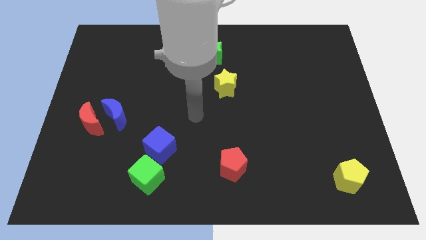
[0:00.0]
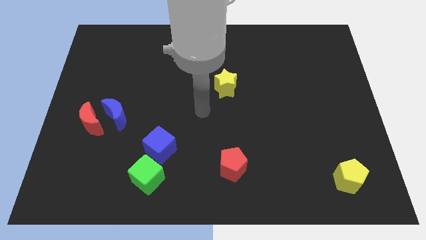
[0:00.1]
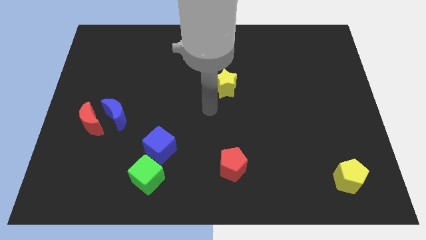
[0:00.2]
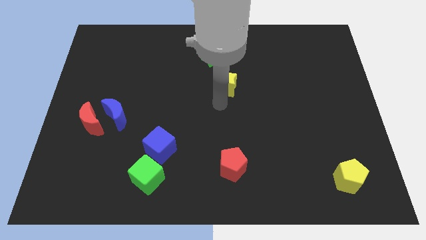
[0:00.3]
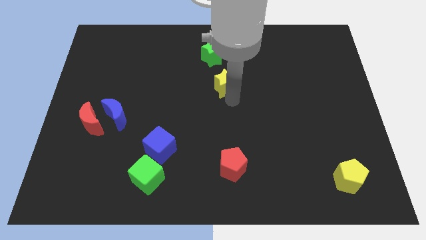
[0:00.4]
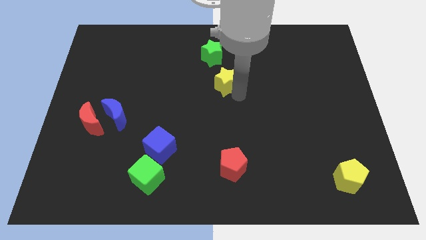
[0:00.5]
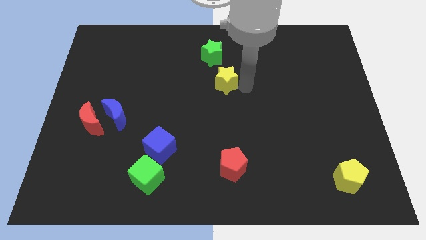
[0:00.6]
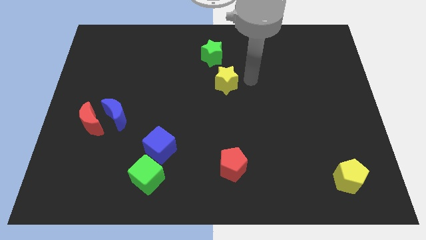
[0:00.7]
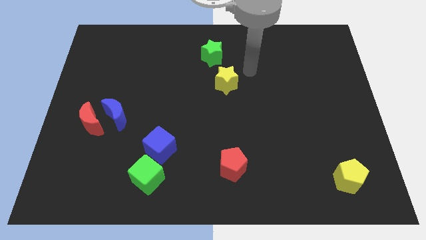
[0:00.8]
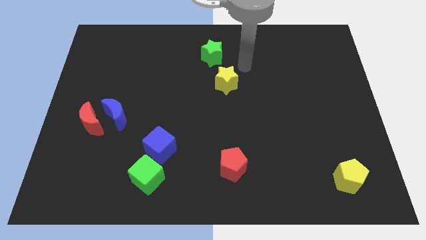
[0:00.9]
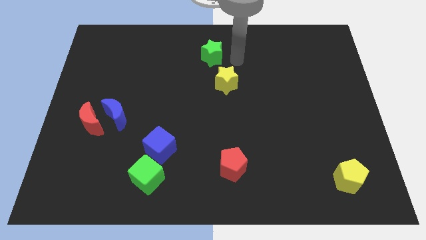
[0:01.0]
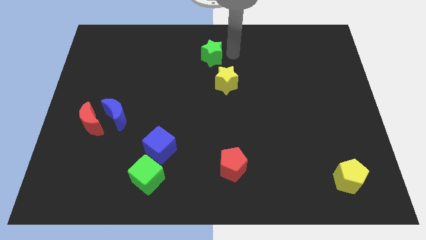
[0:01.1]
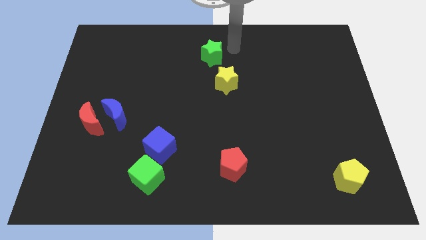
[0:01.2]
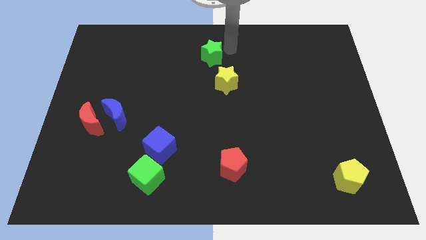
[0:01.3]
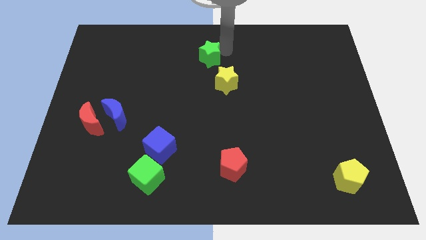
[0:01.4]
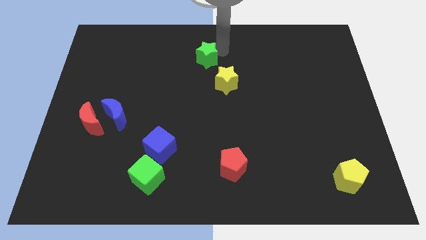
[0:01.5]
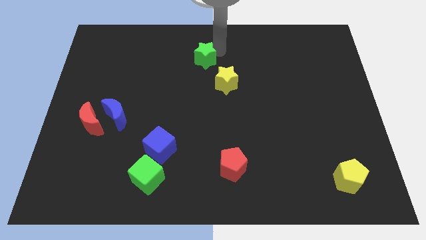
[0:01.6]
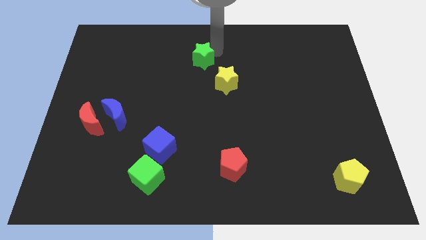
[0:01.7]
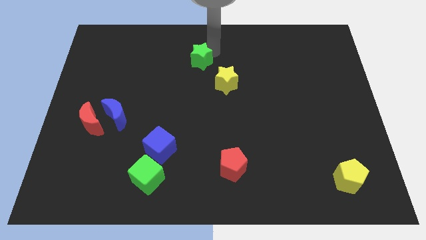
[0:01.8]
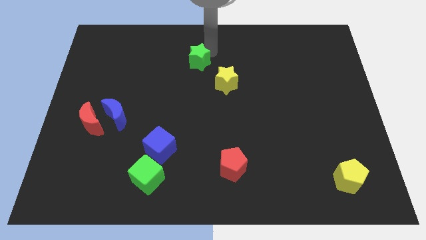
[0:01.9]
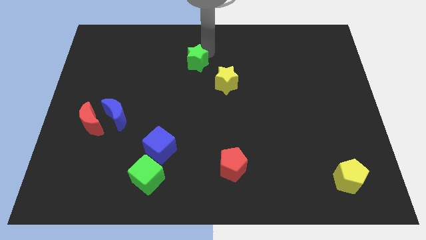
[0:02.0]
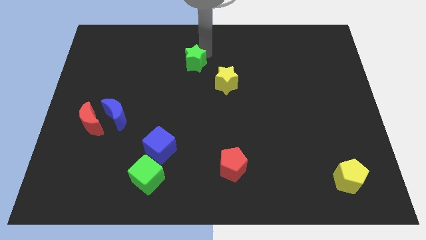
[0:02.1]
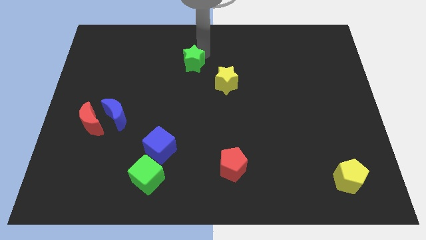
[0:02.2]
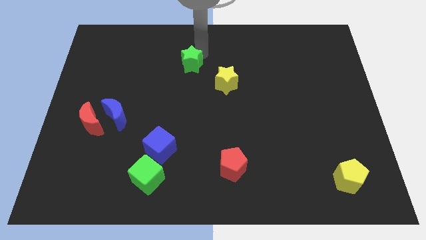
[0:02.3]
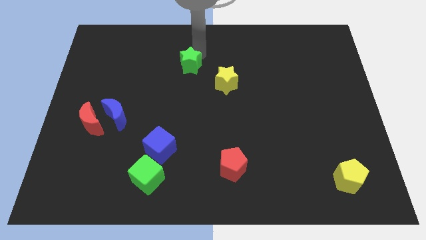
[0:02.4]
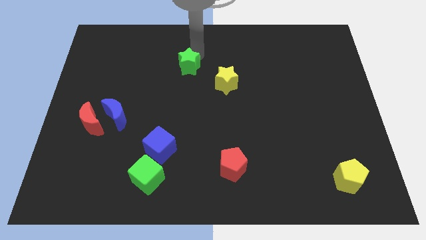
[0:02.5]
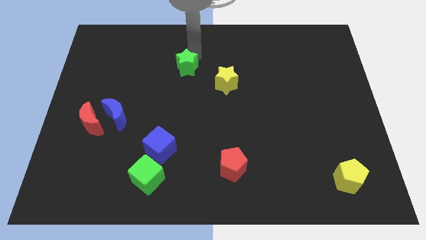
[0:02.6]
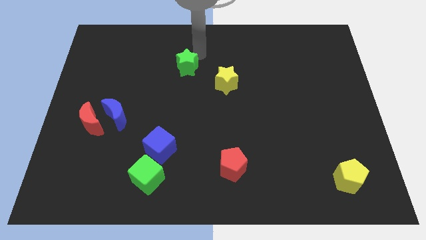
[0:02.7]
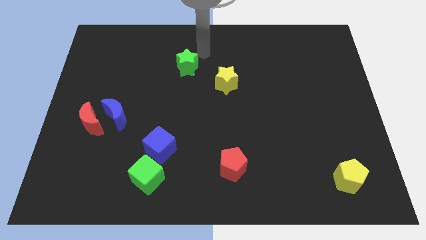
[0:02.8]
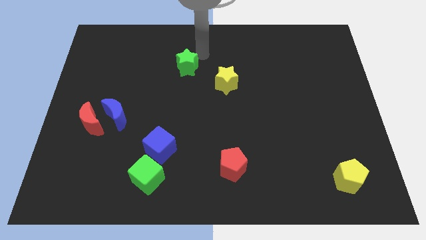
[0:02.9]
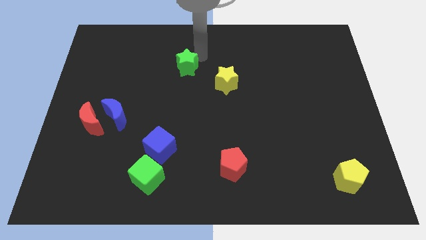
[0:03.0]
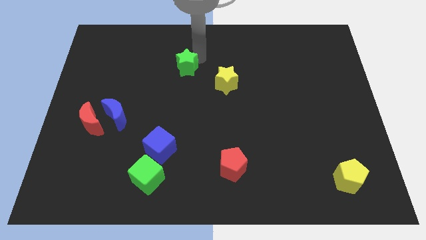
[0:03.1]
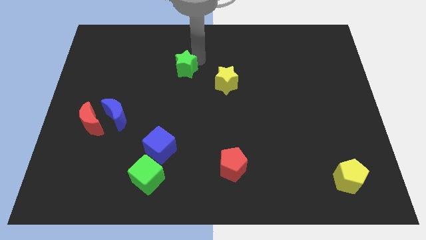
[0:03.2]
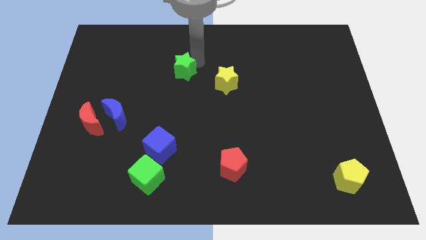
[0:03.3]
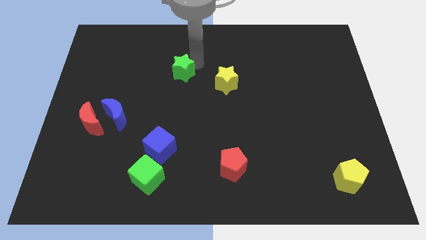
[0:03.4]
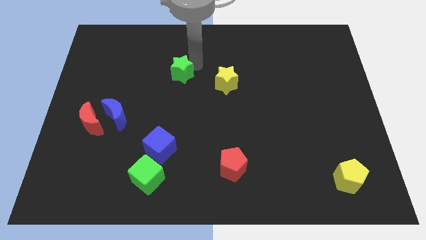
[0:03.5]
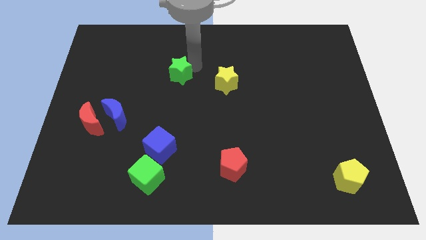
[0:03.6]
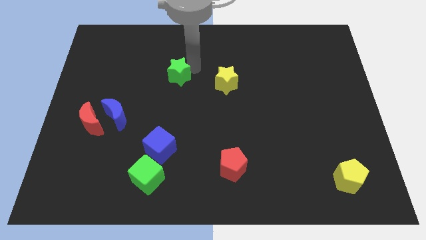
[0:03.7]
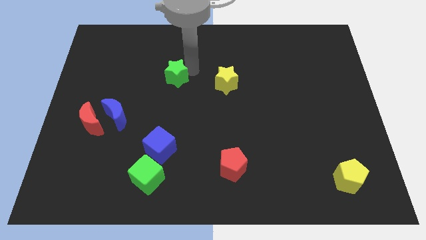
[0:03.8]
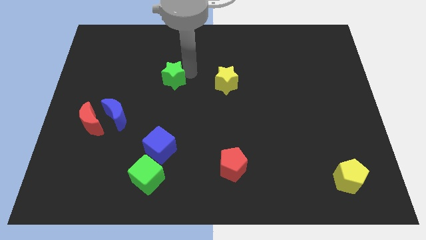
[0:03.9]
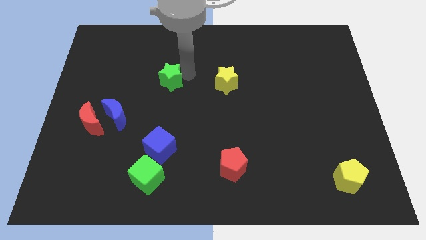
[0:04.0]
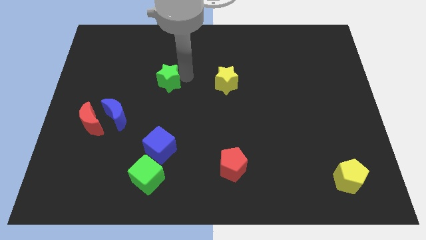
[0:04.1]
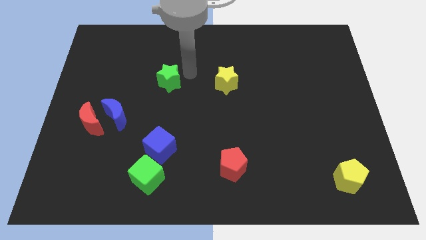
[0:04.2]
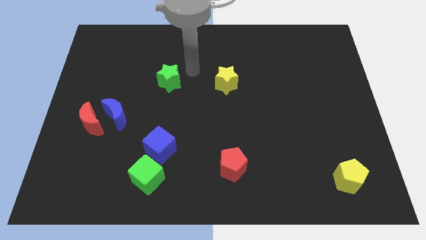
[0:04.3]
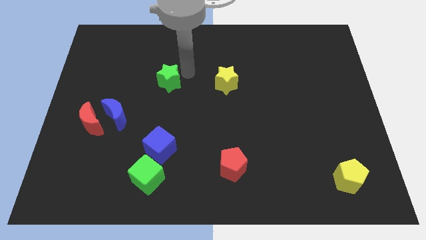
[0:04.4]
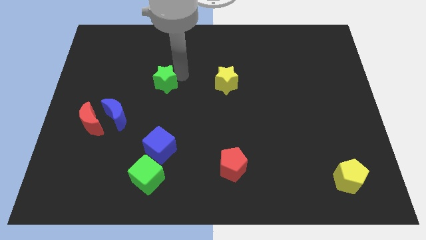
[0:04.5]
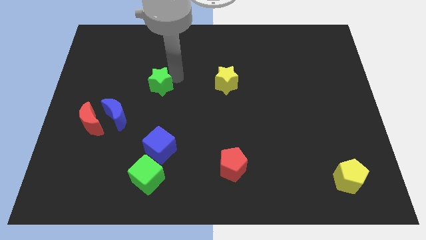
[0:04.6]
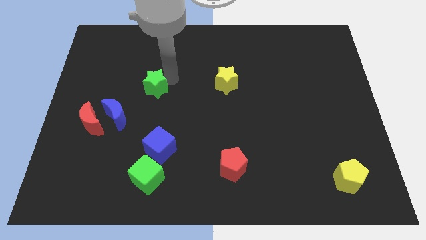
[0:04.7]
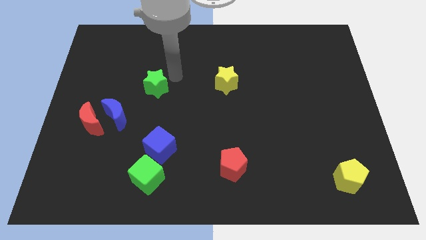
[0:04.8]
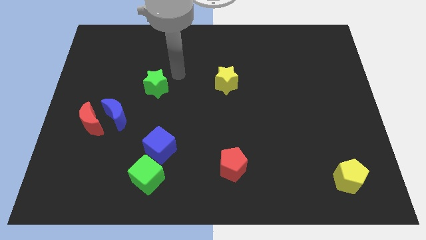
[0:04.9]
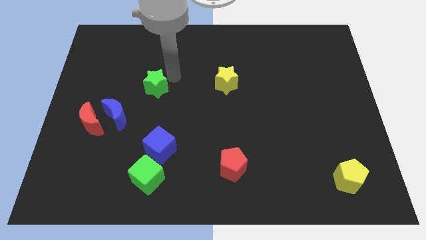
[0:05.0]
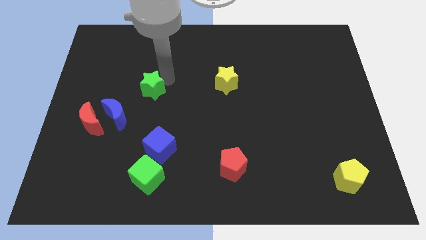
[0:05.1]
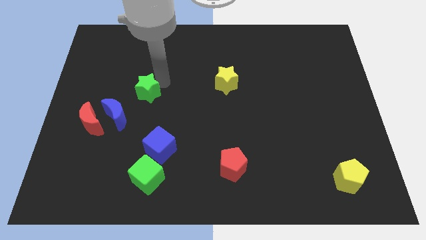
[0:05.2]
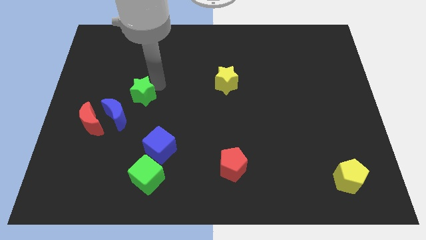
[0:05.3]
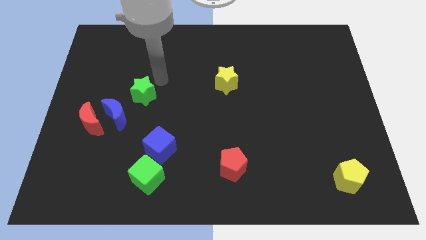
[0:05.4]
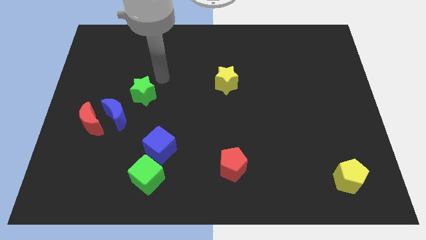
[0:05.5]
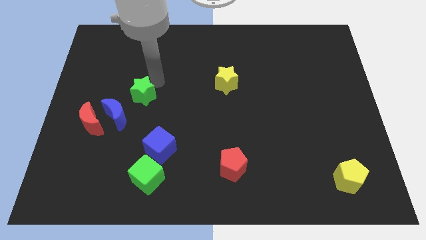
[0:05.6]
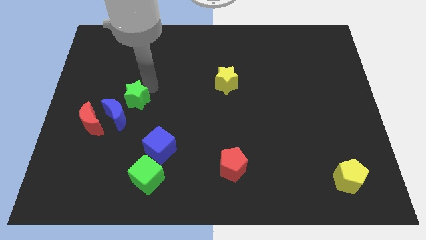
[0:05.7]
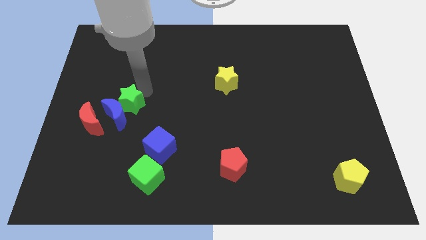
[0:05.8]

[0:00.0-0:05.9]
move the green star towards the blue moon

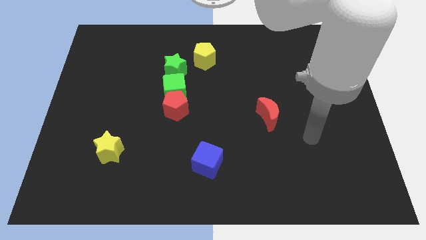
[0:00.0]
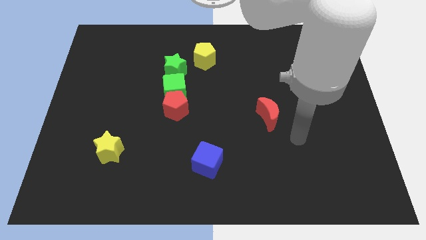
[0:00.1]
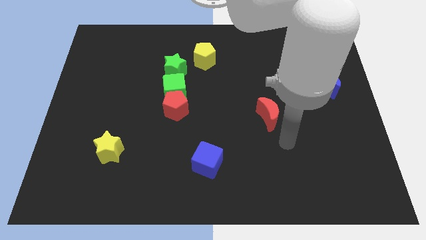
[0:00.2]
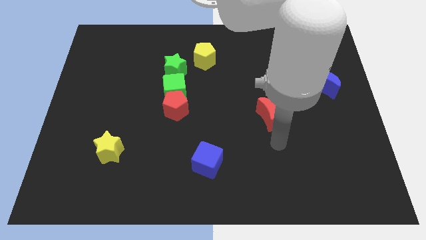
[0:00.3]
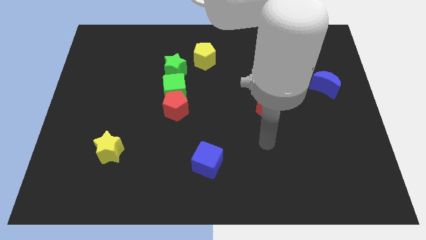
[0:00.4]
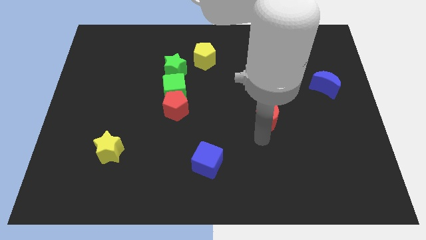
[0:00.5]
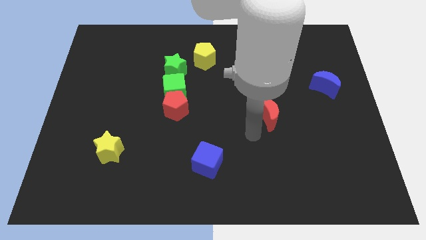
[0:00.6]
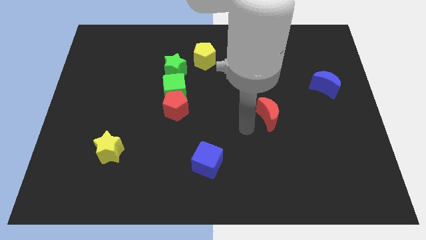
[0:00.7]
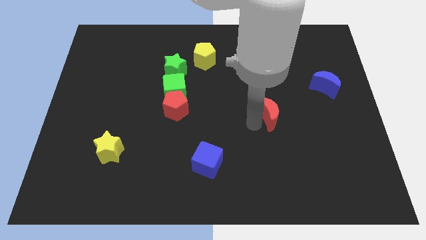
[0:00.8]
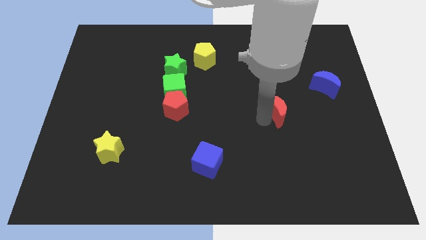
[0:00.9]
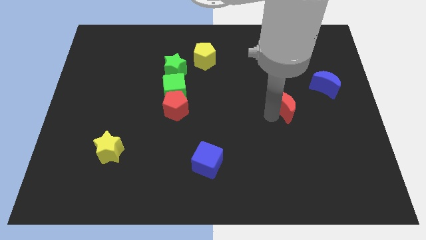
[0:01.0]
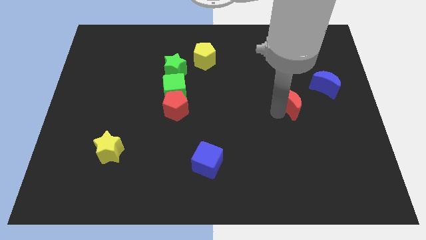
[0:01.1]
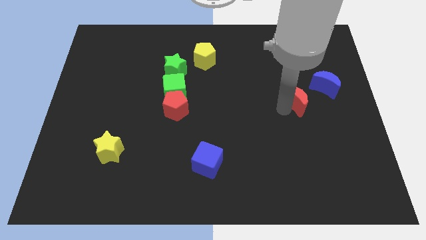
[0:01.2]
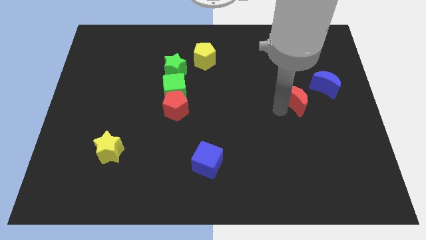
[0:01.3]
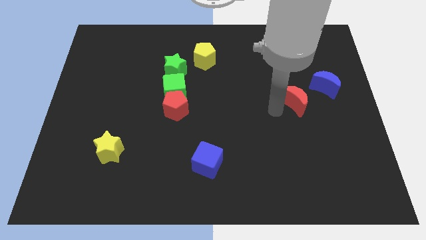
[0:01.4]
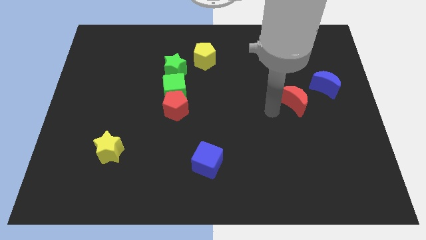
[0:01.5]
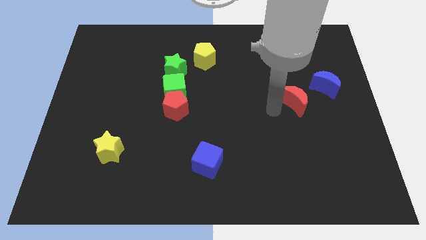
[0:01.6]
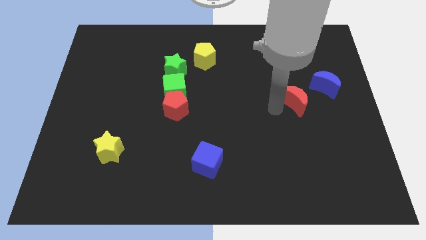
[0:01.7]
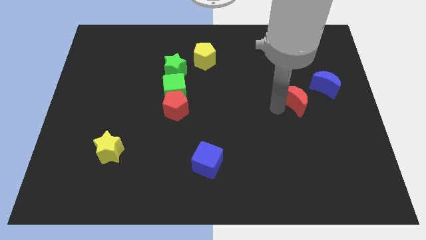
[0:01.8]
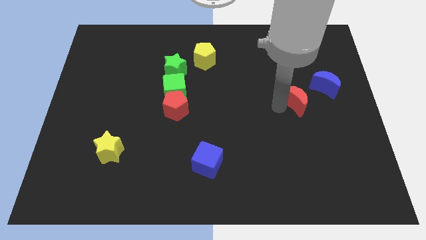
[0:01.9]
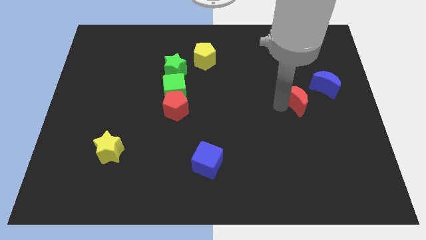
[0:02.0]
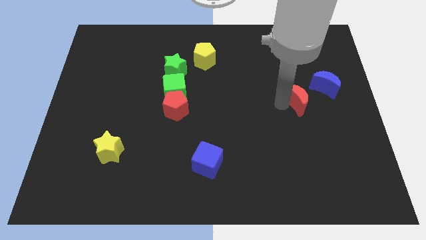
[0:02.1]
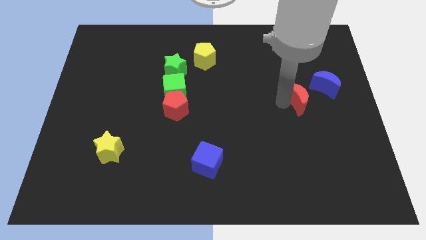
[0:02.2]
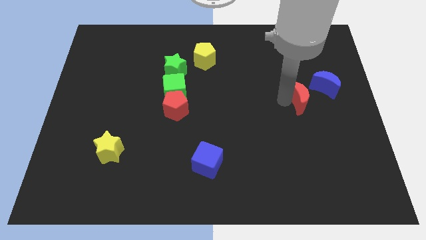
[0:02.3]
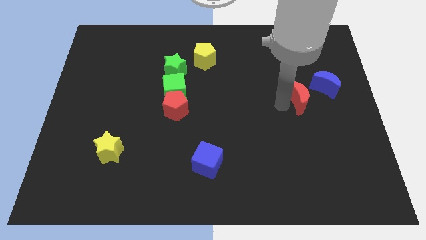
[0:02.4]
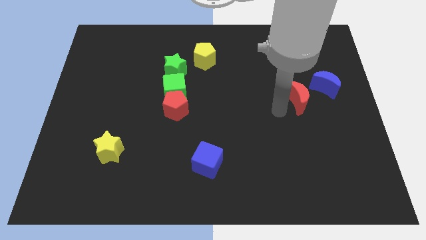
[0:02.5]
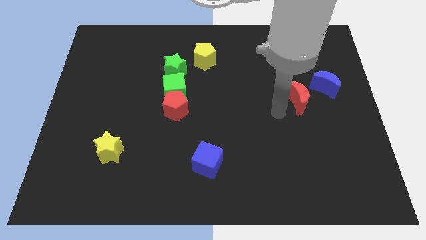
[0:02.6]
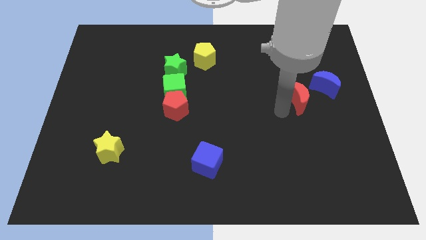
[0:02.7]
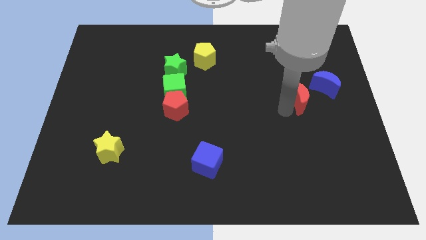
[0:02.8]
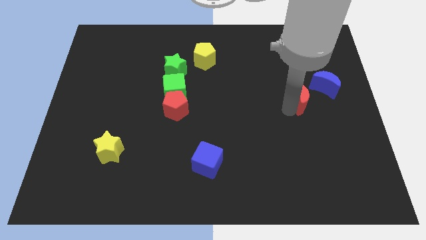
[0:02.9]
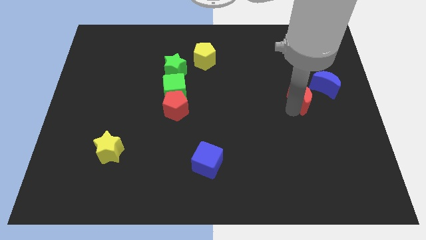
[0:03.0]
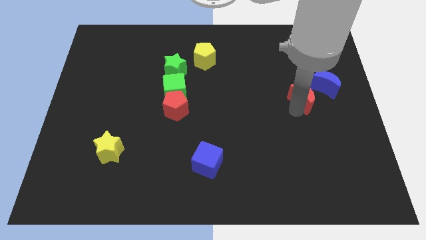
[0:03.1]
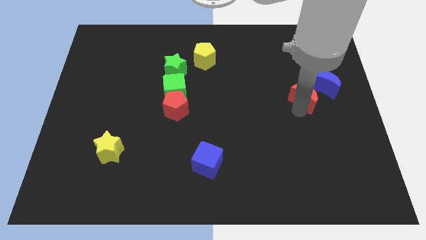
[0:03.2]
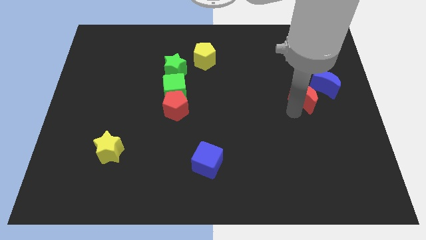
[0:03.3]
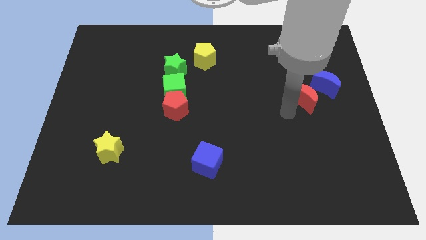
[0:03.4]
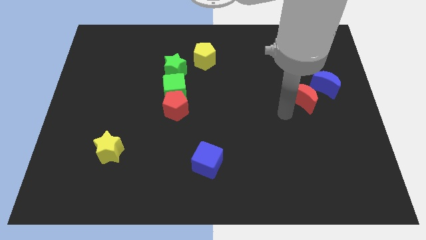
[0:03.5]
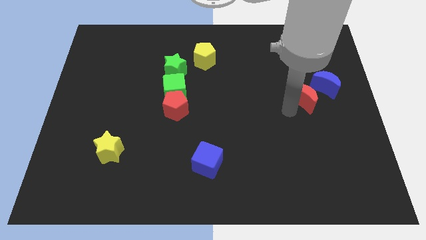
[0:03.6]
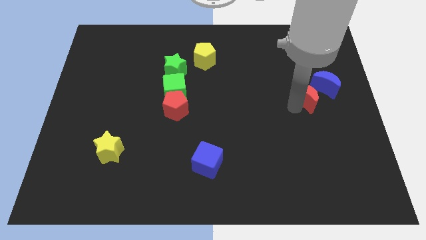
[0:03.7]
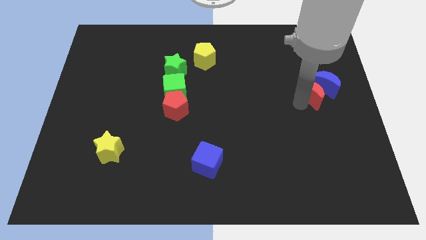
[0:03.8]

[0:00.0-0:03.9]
push the red moon next to the blue moon
